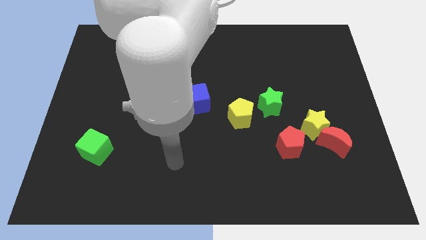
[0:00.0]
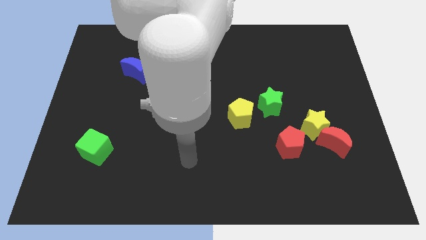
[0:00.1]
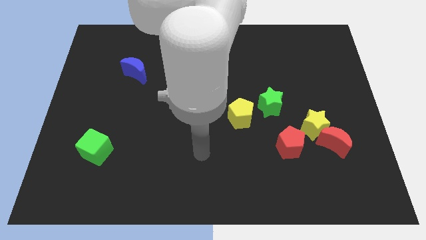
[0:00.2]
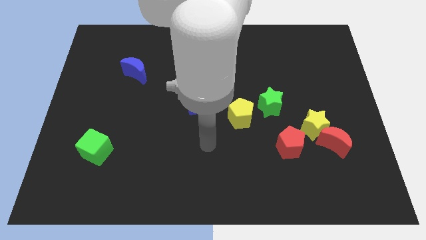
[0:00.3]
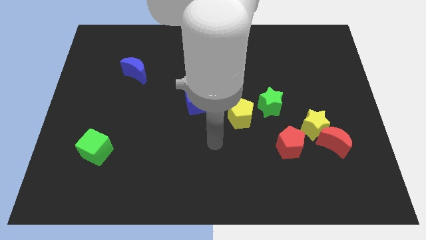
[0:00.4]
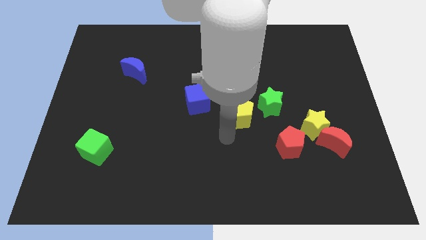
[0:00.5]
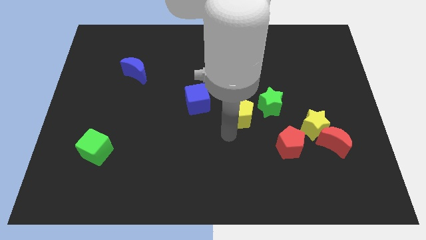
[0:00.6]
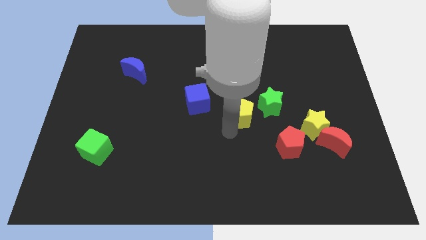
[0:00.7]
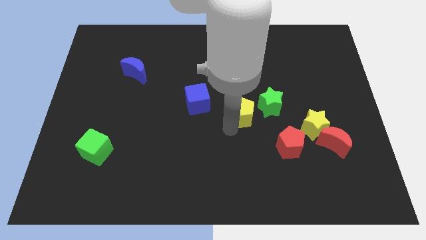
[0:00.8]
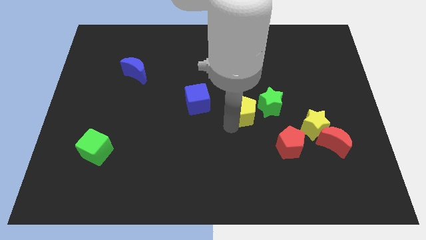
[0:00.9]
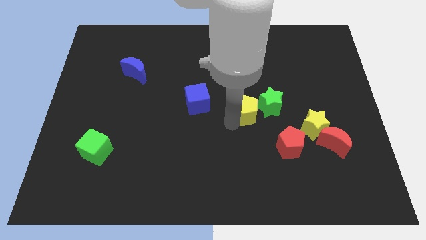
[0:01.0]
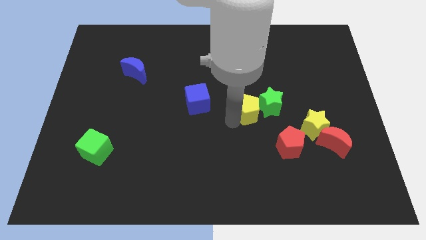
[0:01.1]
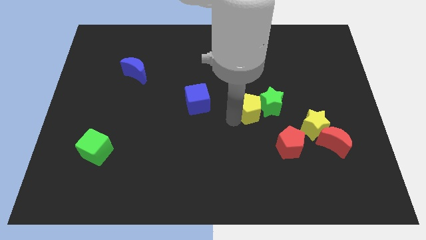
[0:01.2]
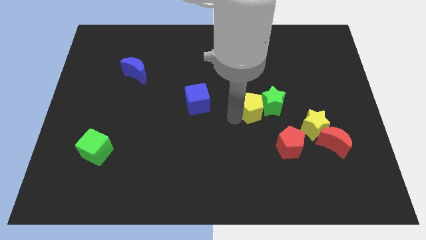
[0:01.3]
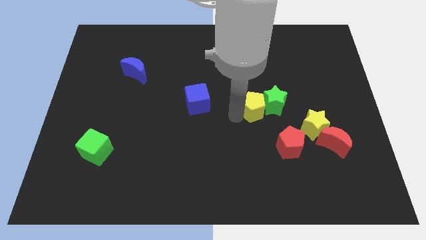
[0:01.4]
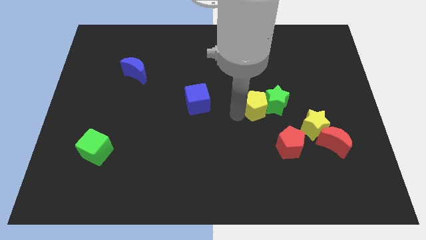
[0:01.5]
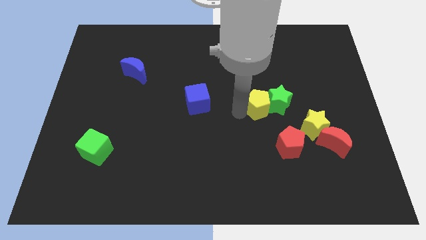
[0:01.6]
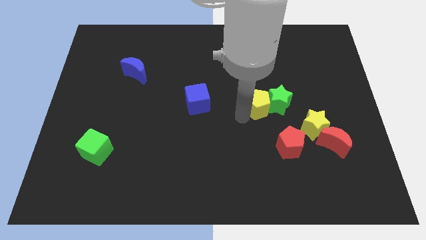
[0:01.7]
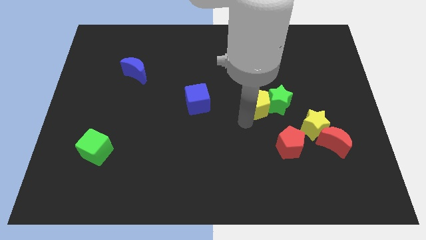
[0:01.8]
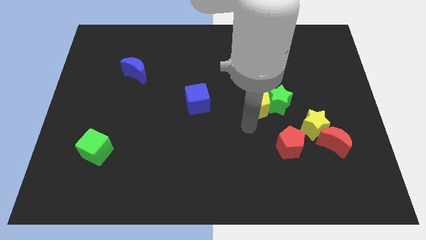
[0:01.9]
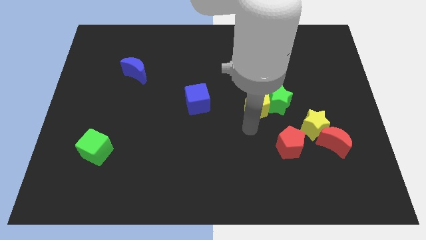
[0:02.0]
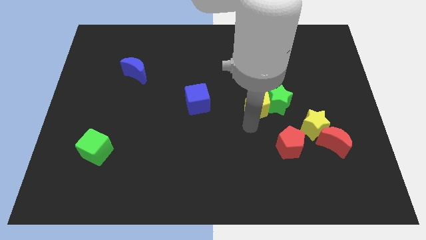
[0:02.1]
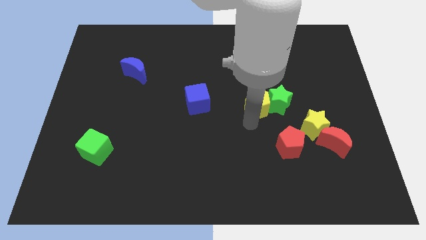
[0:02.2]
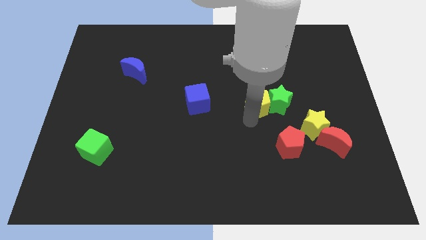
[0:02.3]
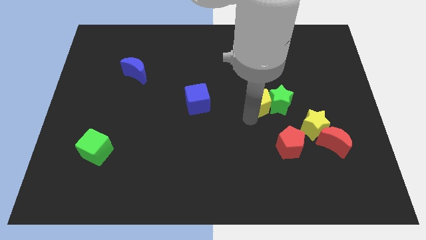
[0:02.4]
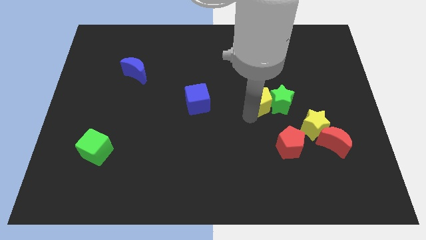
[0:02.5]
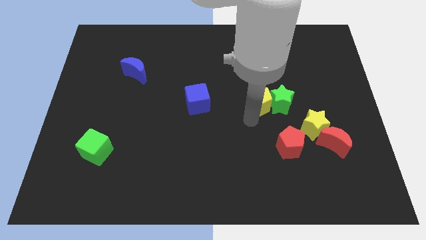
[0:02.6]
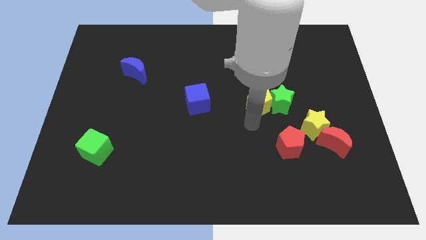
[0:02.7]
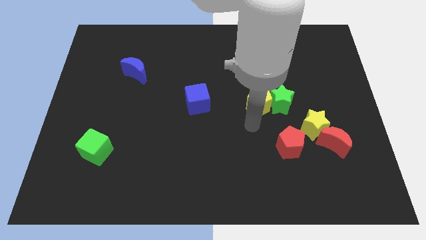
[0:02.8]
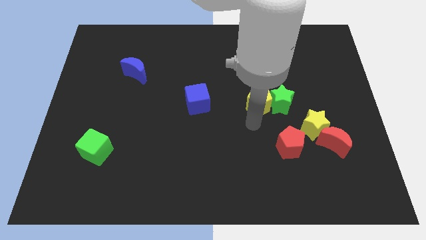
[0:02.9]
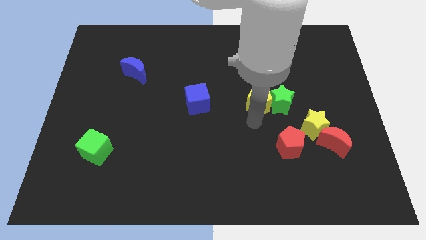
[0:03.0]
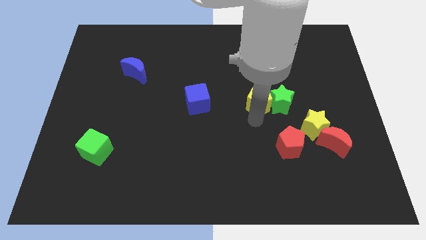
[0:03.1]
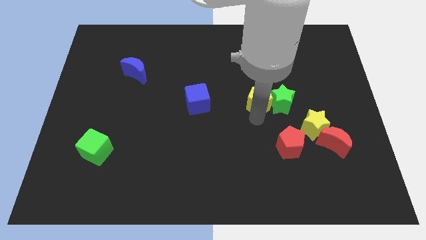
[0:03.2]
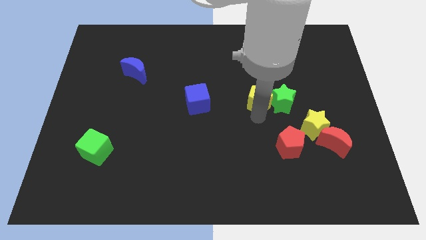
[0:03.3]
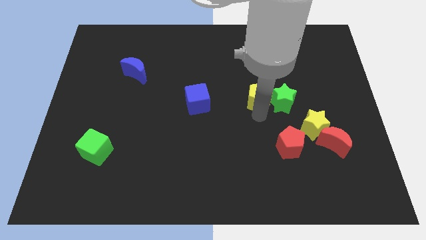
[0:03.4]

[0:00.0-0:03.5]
move the yellow pentagon upwards and then to the right a bit

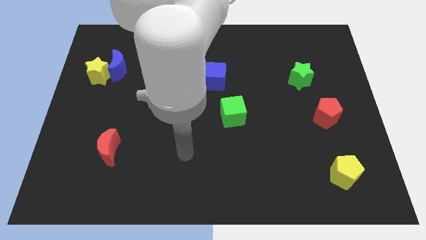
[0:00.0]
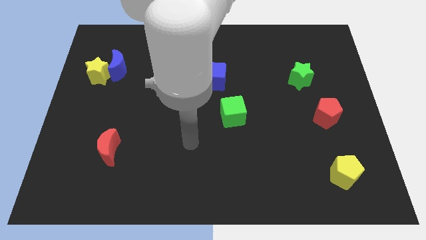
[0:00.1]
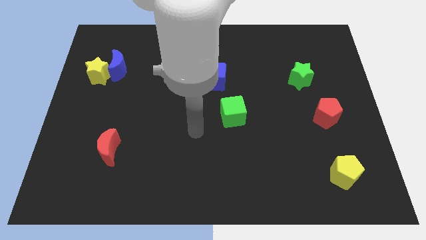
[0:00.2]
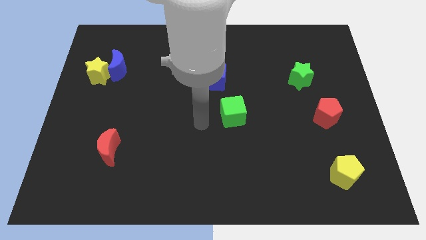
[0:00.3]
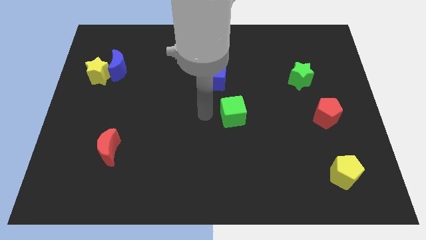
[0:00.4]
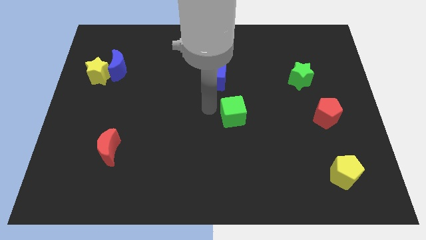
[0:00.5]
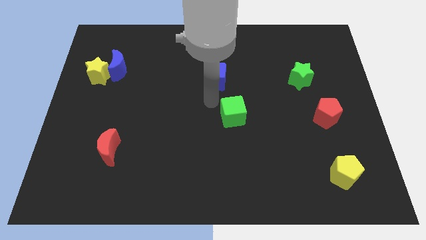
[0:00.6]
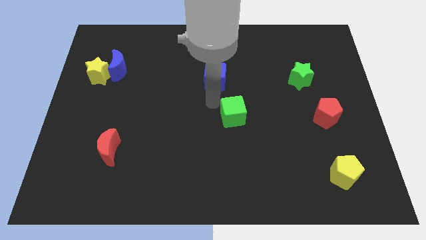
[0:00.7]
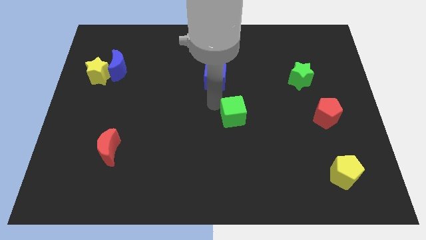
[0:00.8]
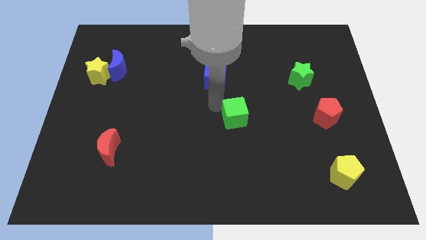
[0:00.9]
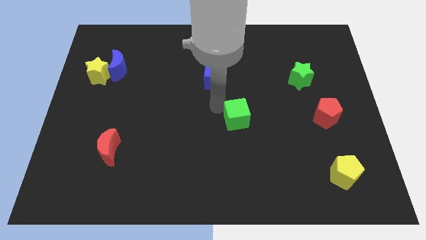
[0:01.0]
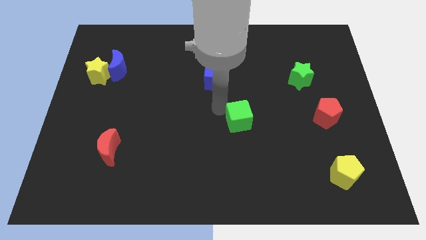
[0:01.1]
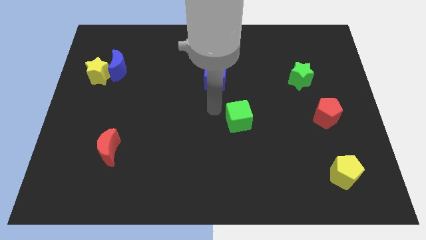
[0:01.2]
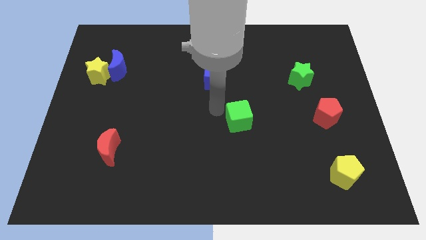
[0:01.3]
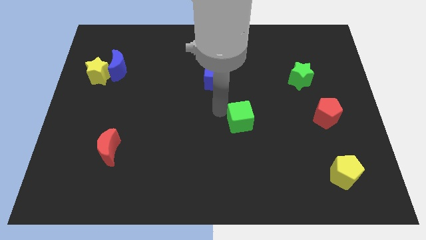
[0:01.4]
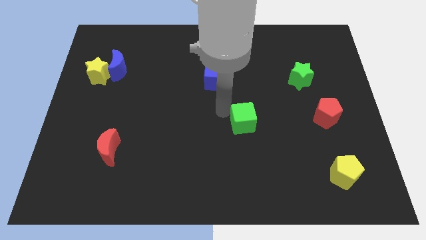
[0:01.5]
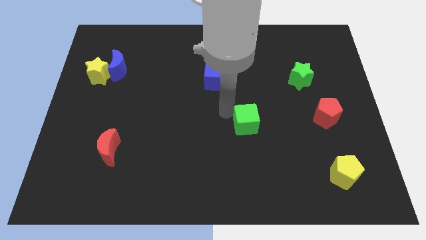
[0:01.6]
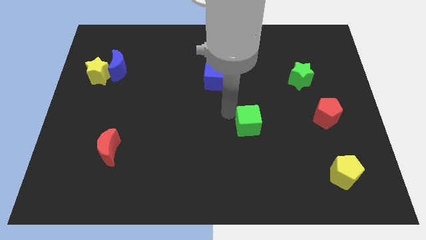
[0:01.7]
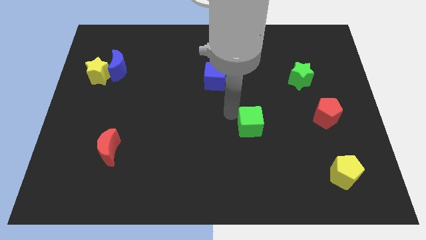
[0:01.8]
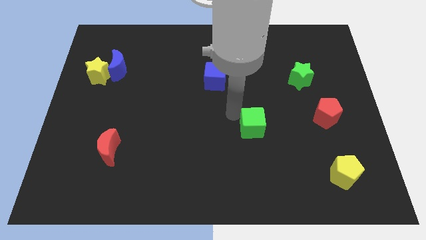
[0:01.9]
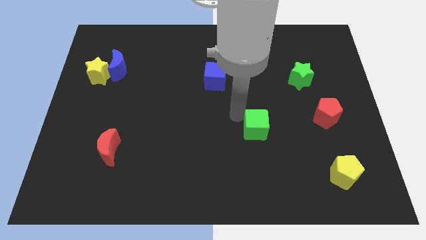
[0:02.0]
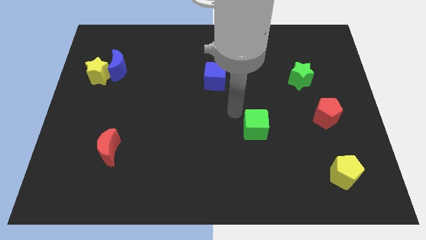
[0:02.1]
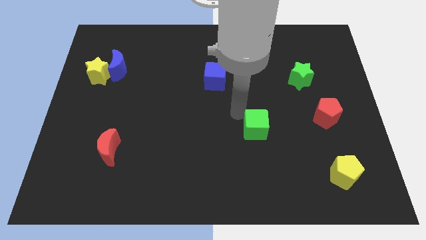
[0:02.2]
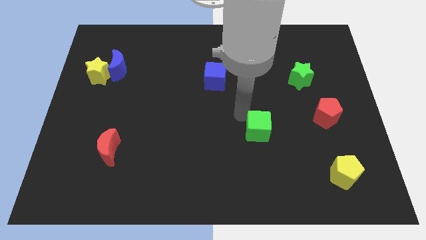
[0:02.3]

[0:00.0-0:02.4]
push the green cube a little down and right

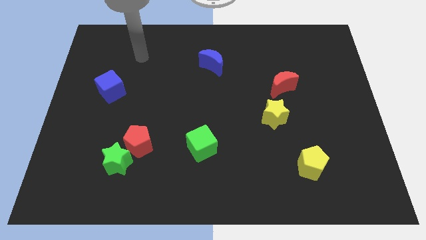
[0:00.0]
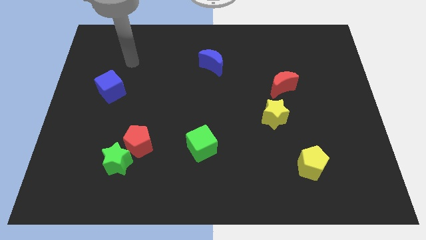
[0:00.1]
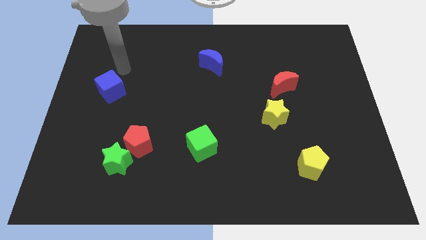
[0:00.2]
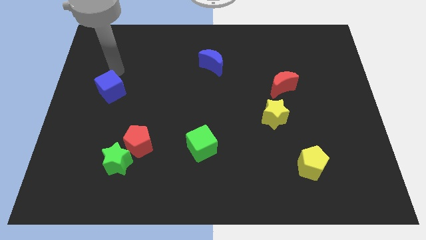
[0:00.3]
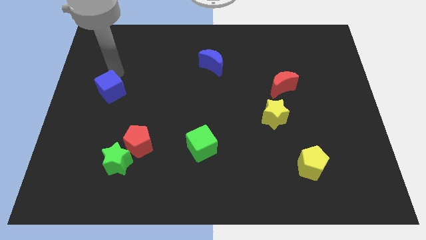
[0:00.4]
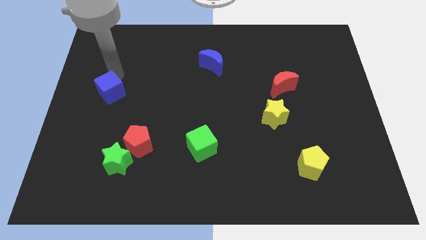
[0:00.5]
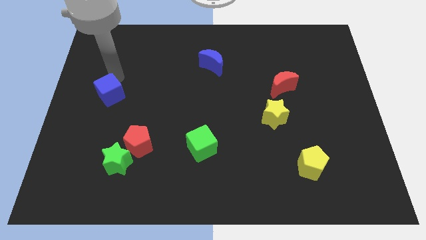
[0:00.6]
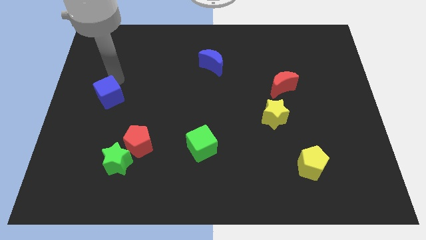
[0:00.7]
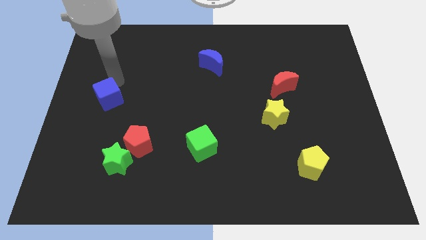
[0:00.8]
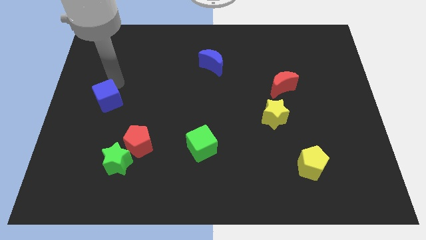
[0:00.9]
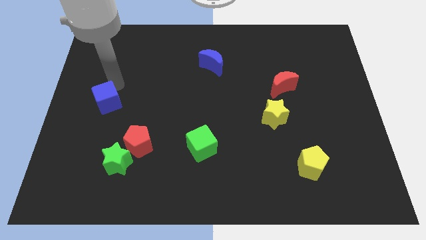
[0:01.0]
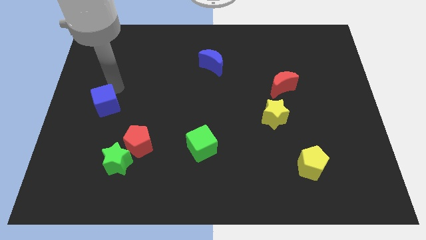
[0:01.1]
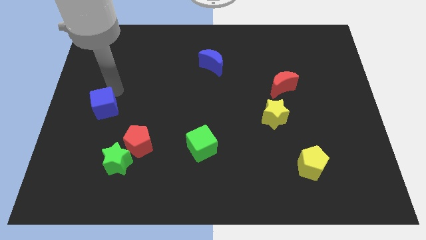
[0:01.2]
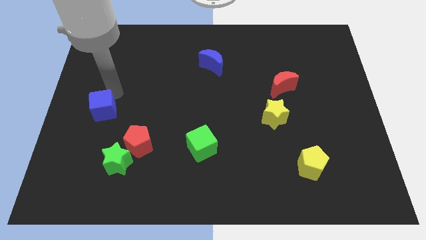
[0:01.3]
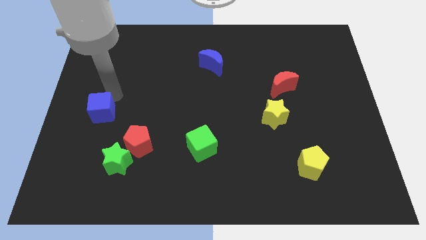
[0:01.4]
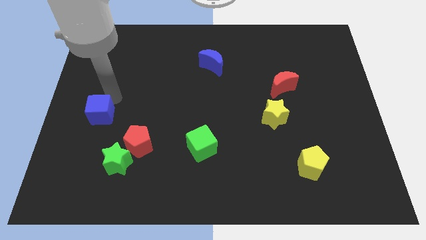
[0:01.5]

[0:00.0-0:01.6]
slightly move the blue cube down

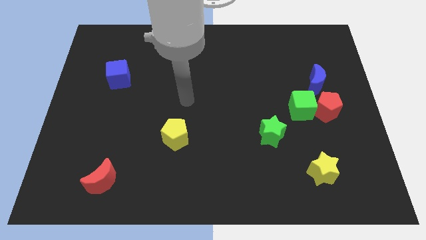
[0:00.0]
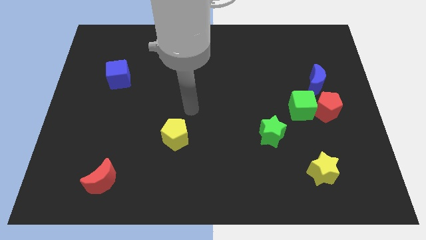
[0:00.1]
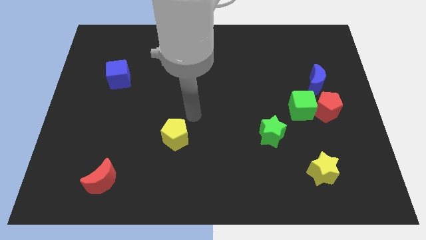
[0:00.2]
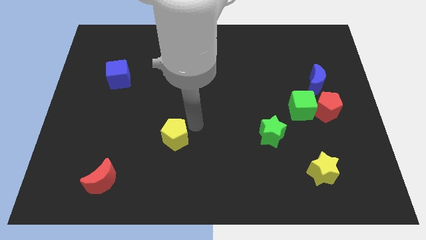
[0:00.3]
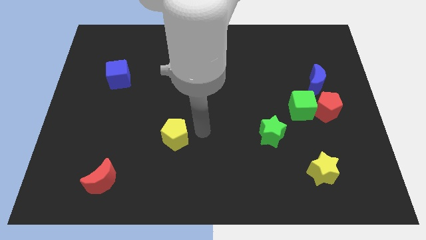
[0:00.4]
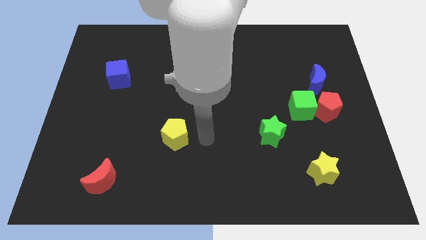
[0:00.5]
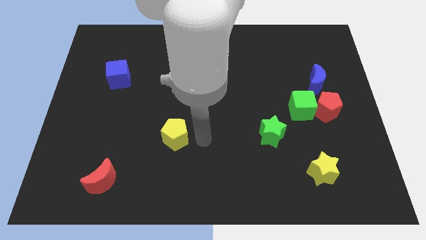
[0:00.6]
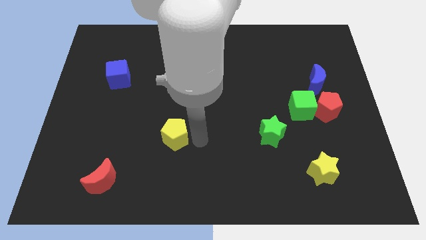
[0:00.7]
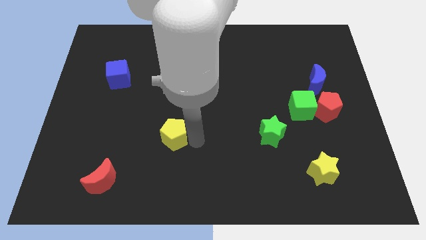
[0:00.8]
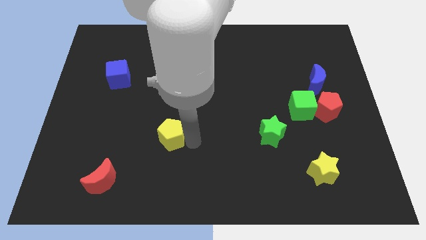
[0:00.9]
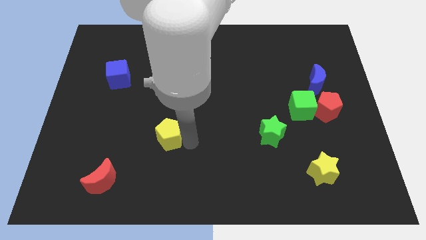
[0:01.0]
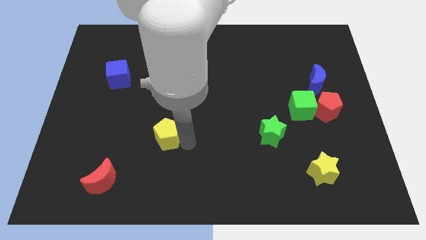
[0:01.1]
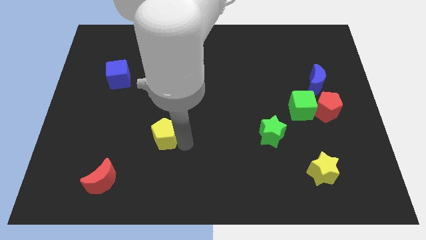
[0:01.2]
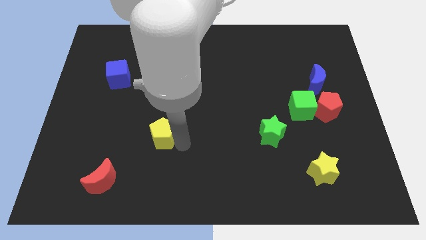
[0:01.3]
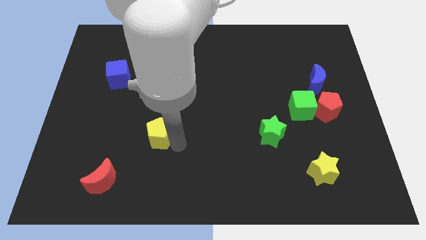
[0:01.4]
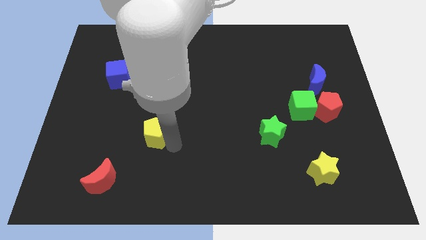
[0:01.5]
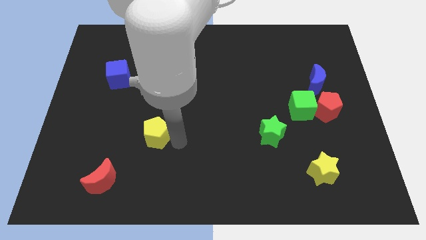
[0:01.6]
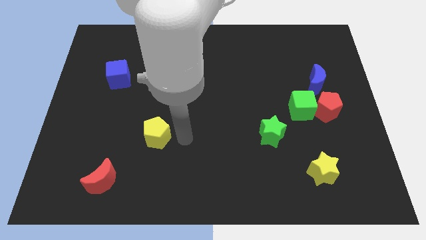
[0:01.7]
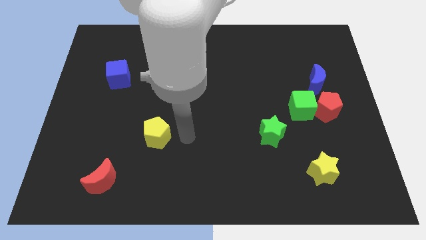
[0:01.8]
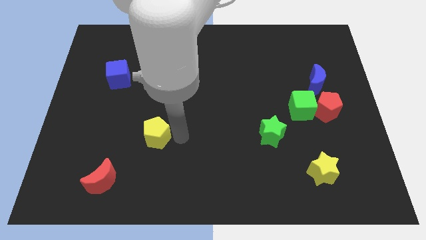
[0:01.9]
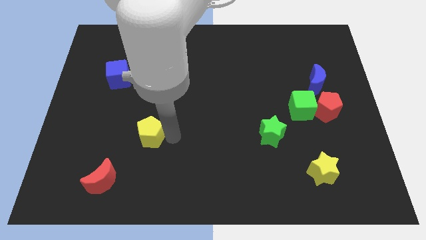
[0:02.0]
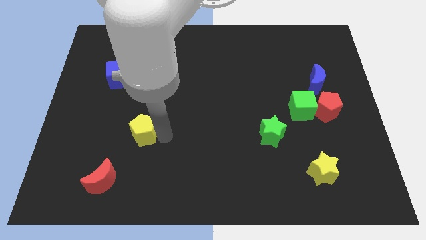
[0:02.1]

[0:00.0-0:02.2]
slide the yellow pentagon left a little
